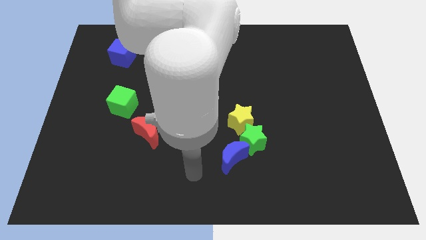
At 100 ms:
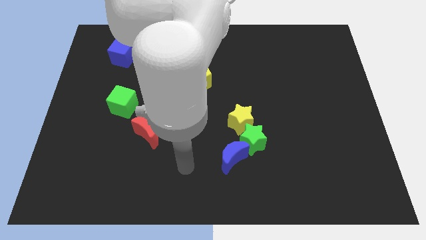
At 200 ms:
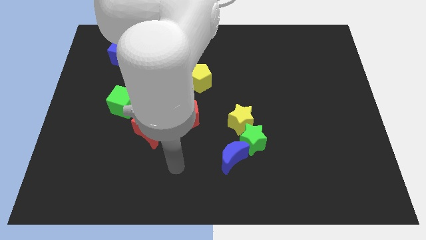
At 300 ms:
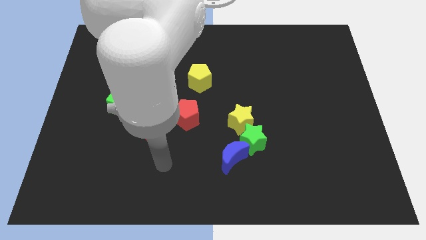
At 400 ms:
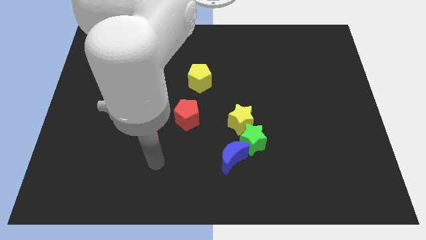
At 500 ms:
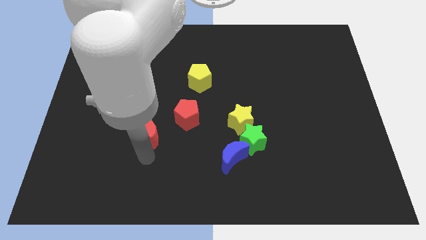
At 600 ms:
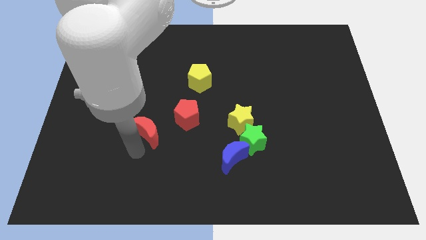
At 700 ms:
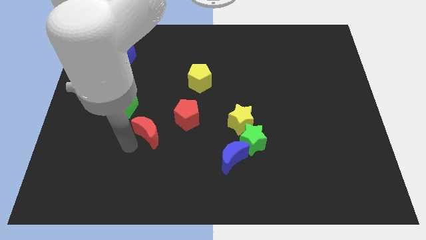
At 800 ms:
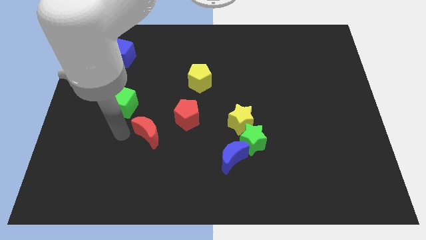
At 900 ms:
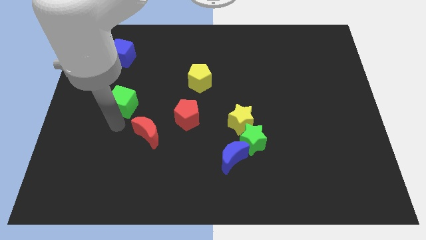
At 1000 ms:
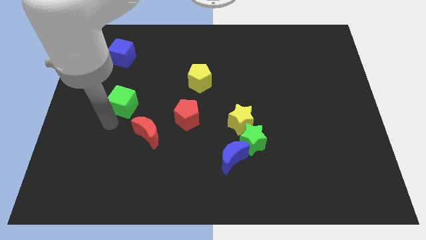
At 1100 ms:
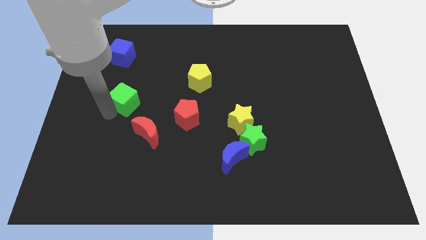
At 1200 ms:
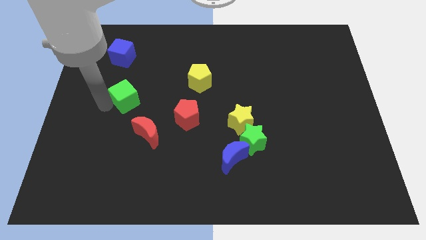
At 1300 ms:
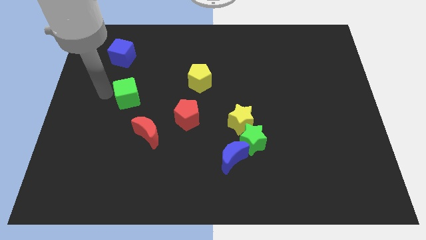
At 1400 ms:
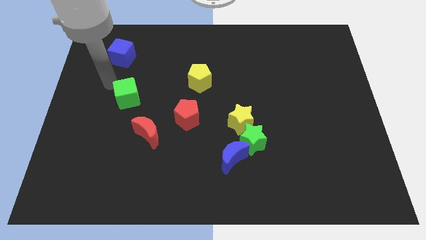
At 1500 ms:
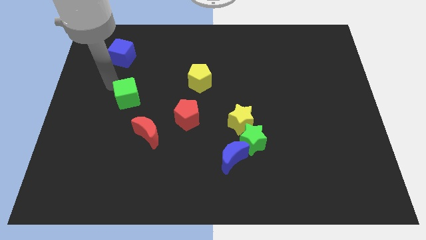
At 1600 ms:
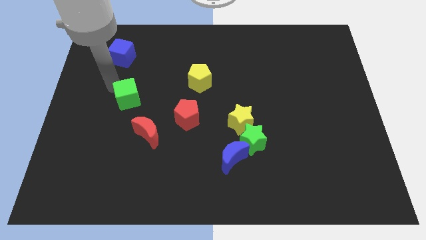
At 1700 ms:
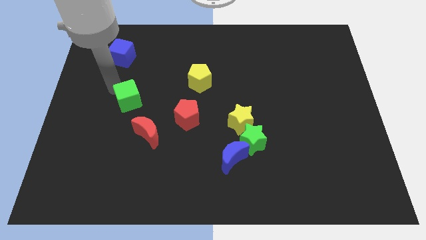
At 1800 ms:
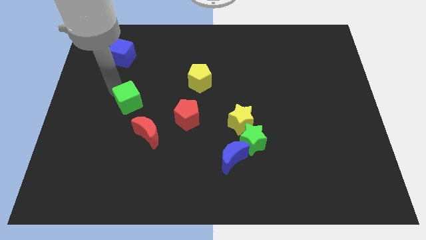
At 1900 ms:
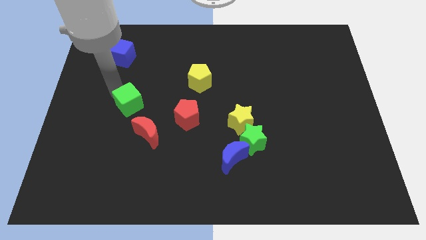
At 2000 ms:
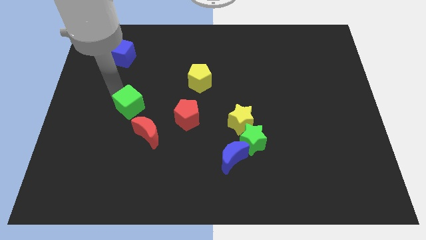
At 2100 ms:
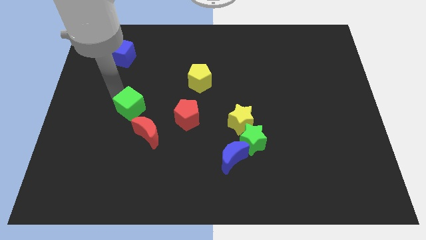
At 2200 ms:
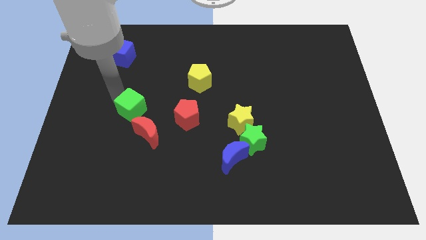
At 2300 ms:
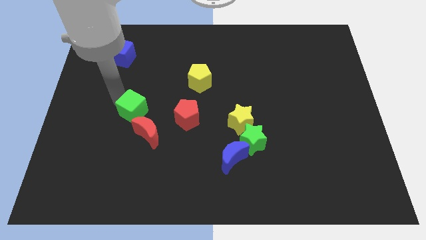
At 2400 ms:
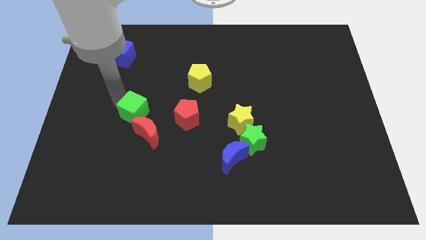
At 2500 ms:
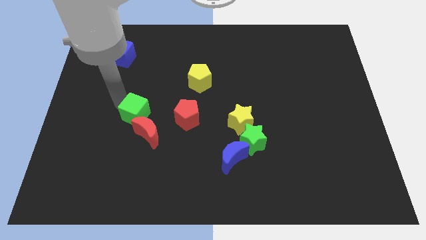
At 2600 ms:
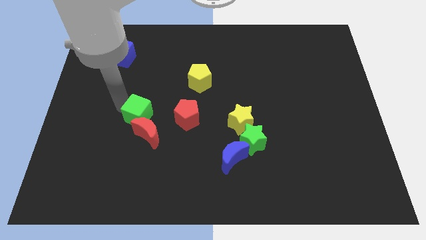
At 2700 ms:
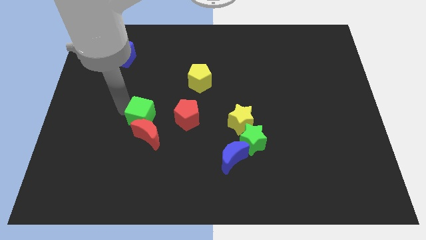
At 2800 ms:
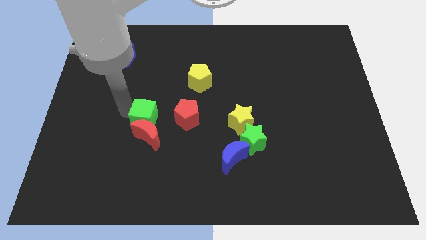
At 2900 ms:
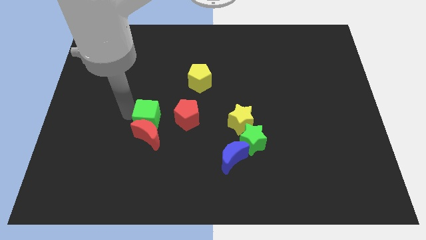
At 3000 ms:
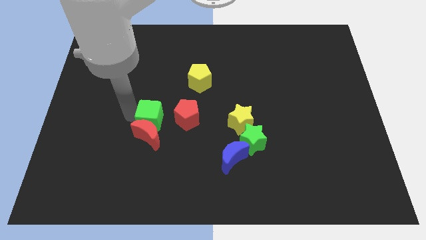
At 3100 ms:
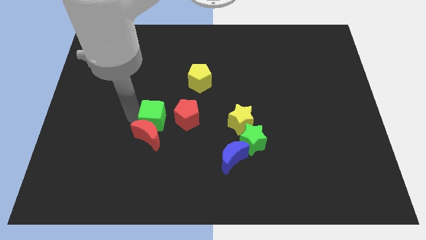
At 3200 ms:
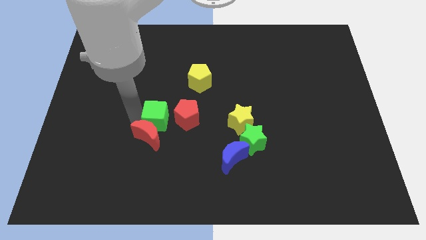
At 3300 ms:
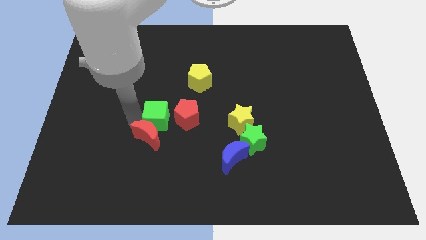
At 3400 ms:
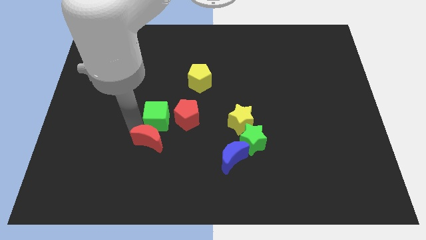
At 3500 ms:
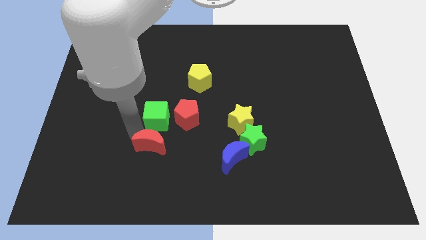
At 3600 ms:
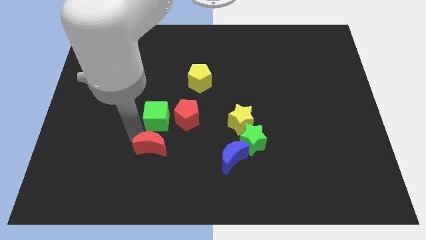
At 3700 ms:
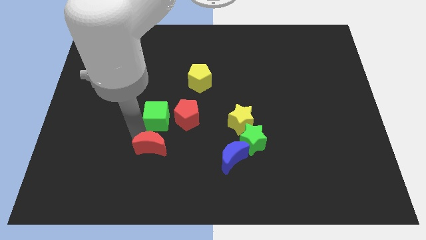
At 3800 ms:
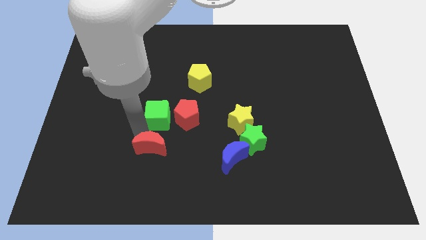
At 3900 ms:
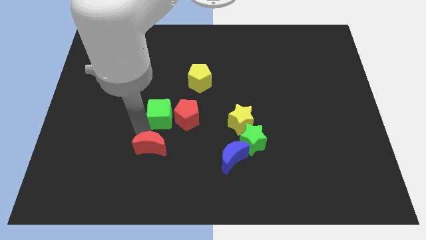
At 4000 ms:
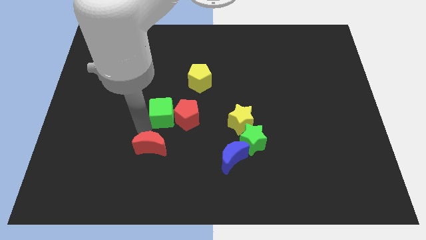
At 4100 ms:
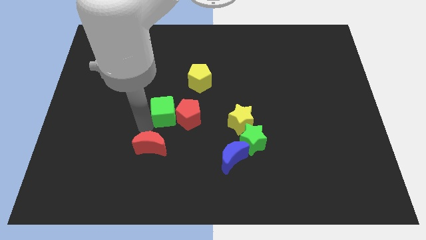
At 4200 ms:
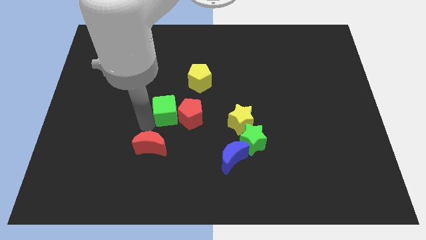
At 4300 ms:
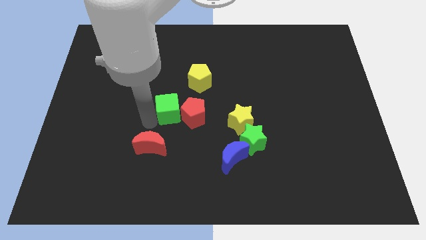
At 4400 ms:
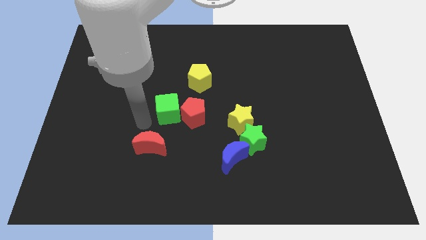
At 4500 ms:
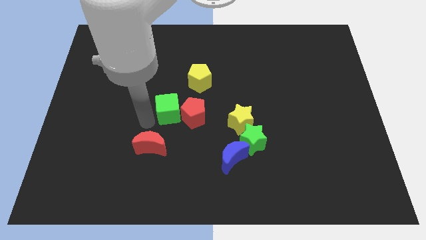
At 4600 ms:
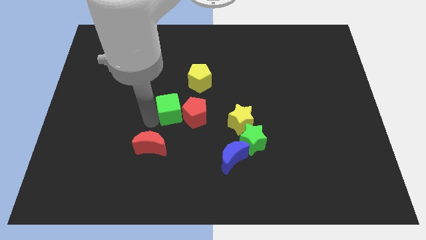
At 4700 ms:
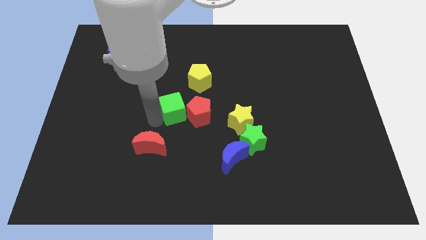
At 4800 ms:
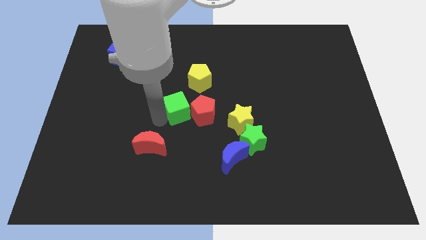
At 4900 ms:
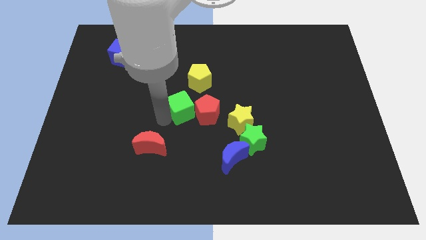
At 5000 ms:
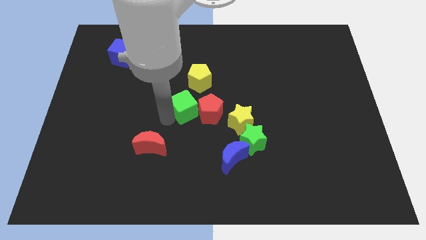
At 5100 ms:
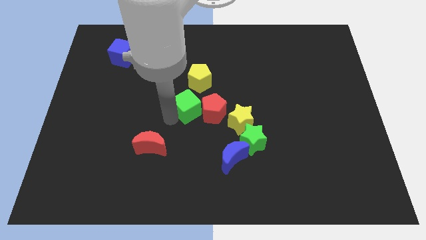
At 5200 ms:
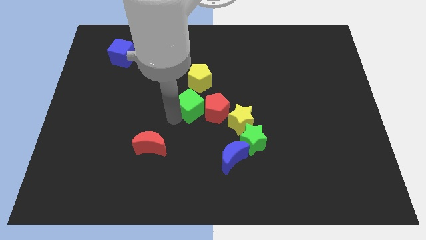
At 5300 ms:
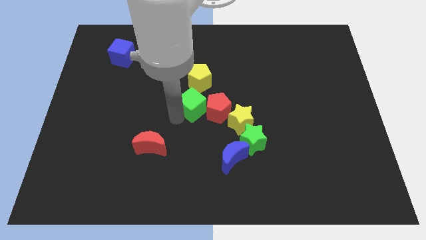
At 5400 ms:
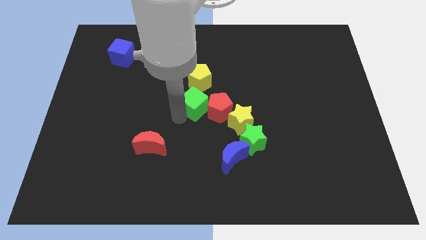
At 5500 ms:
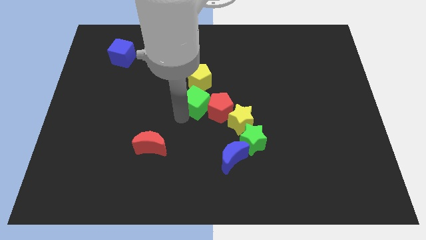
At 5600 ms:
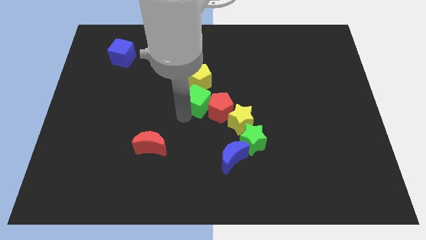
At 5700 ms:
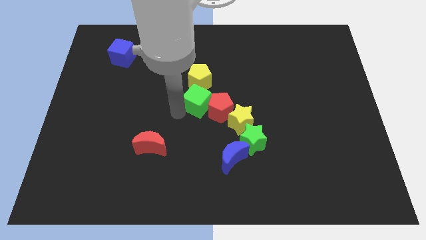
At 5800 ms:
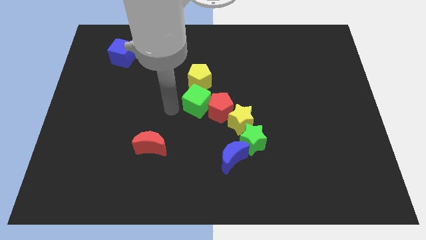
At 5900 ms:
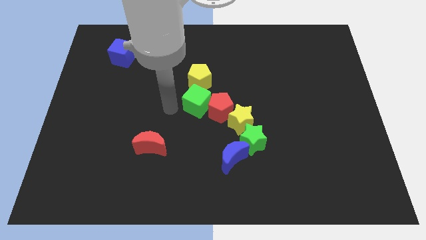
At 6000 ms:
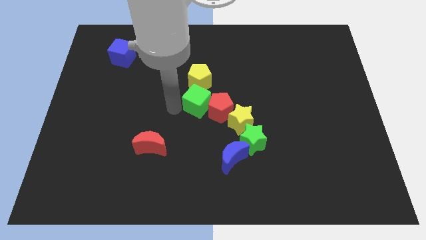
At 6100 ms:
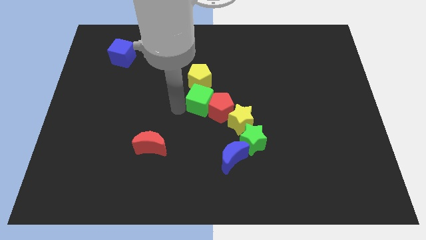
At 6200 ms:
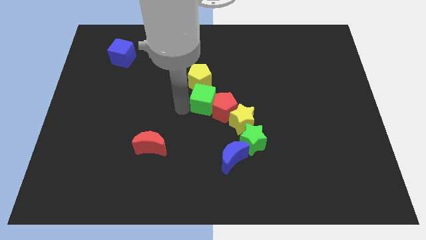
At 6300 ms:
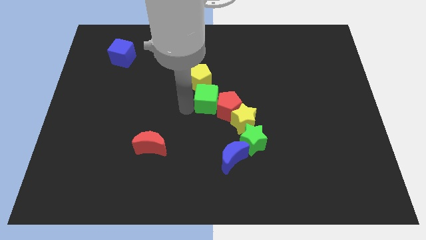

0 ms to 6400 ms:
slide the green cube right

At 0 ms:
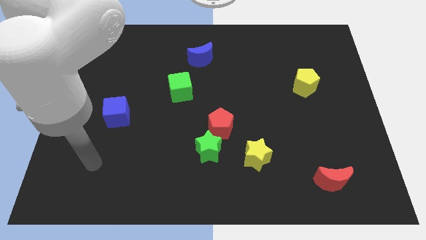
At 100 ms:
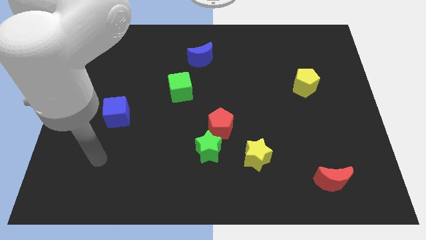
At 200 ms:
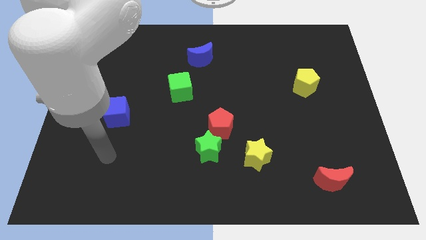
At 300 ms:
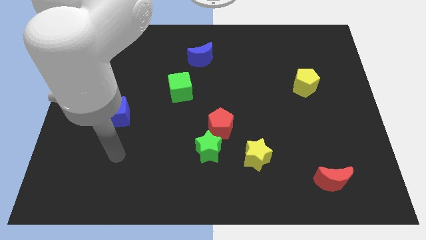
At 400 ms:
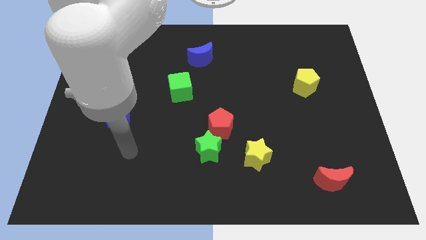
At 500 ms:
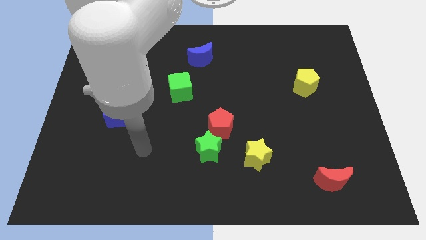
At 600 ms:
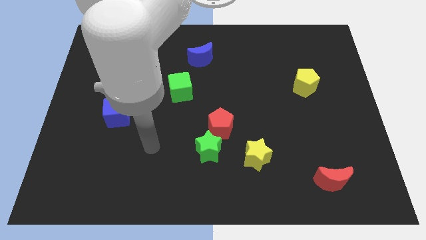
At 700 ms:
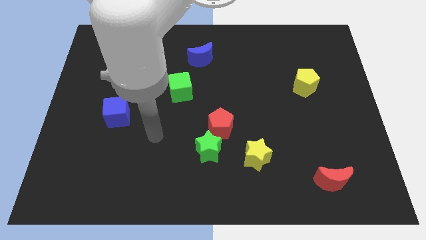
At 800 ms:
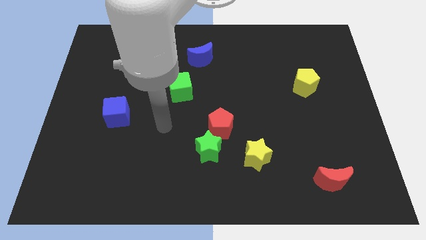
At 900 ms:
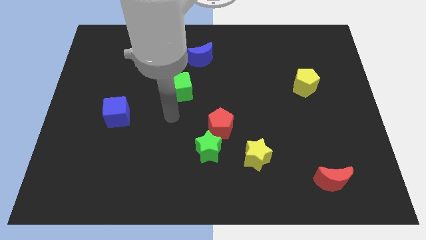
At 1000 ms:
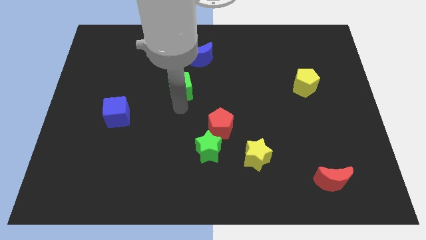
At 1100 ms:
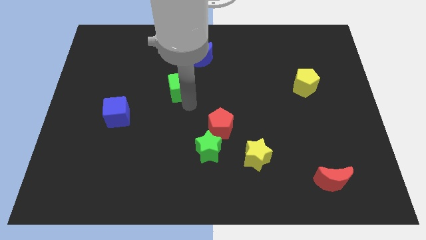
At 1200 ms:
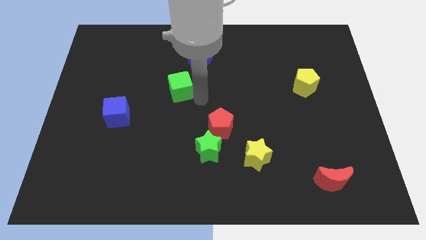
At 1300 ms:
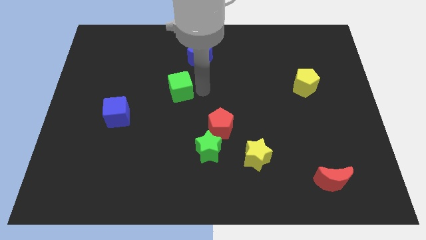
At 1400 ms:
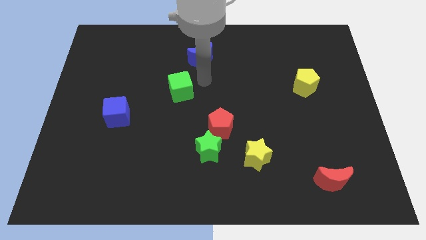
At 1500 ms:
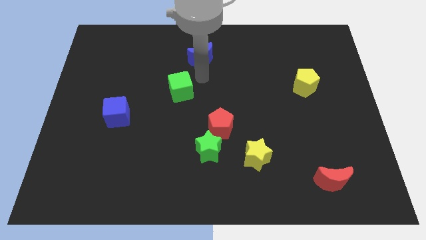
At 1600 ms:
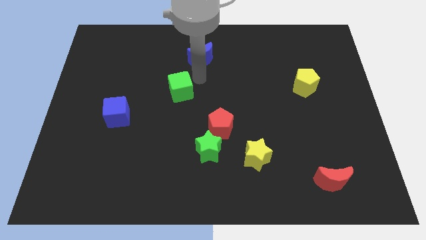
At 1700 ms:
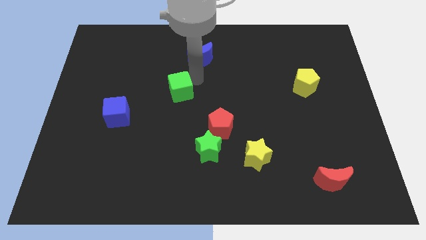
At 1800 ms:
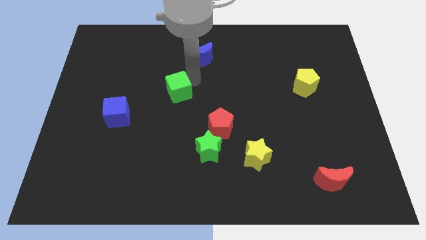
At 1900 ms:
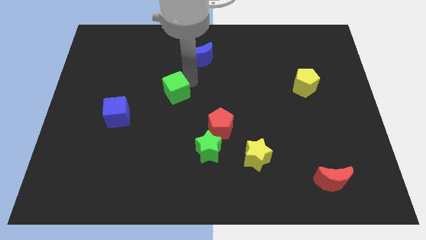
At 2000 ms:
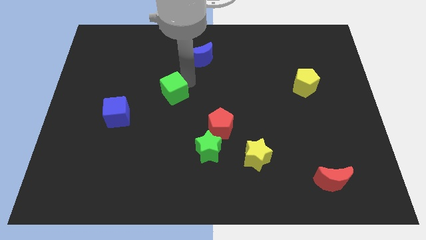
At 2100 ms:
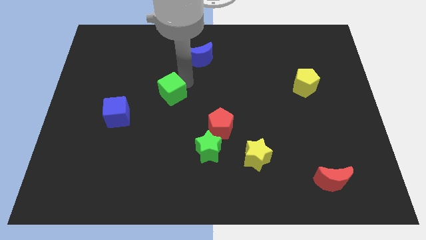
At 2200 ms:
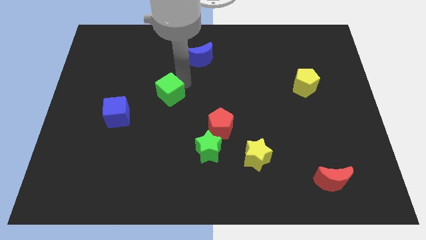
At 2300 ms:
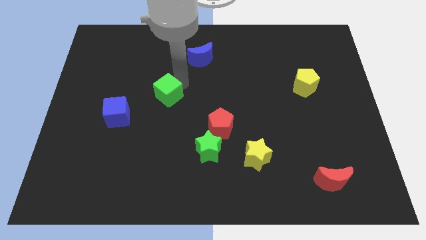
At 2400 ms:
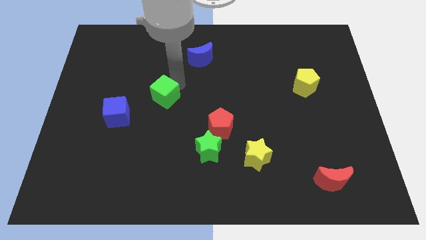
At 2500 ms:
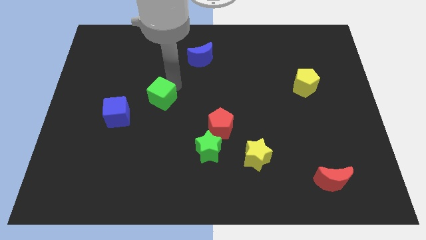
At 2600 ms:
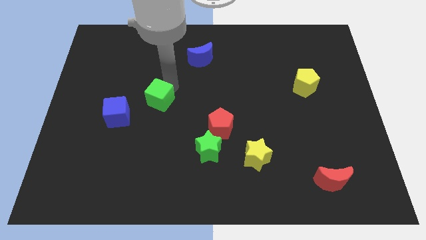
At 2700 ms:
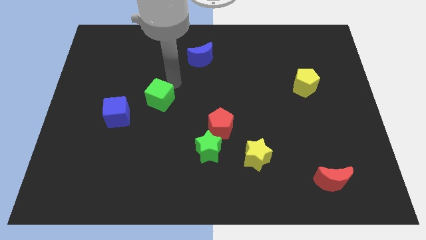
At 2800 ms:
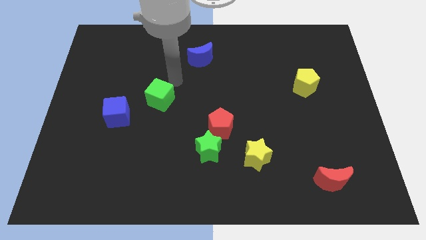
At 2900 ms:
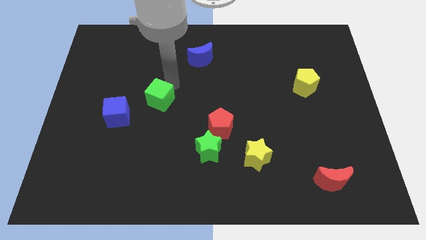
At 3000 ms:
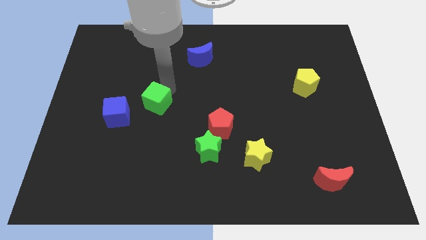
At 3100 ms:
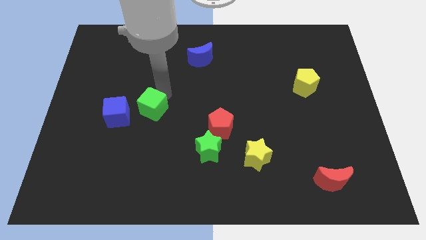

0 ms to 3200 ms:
slightly move the green cube downwards and left
